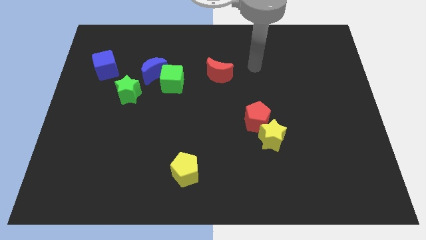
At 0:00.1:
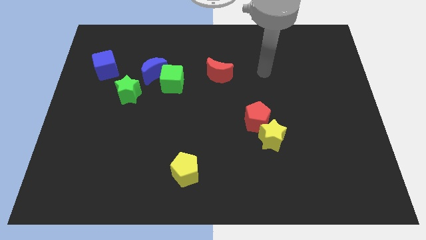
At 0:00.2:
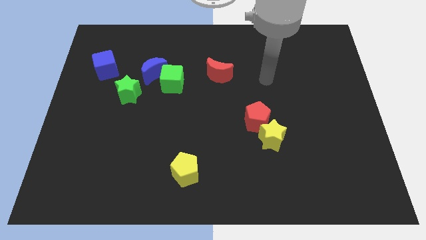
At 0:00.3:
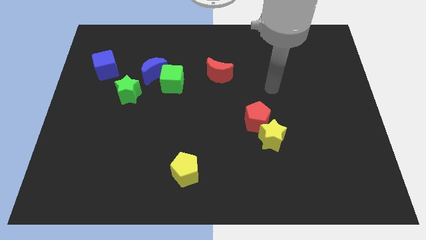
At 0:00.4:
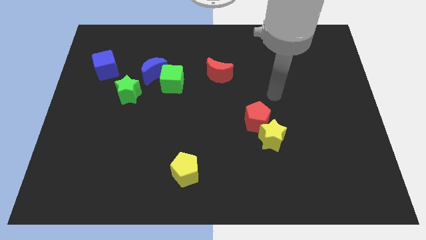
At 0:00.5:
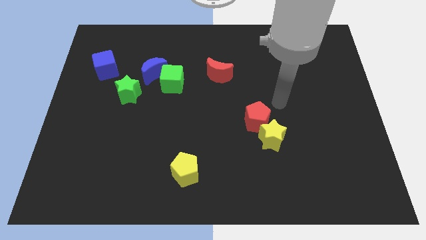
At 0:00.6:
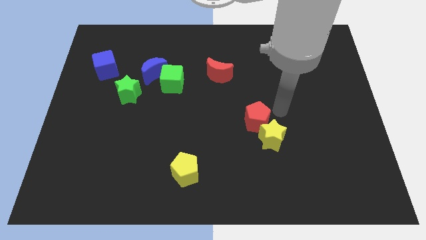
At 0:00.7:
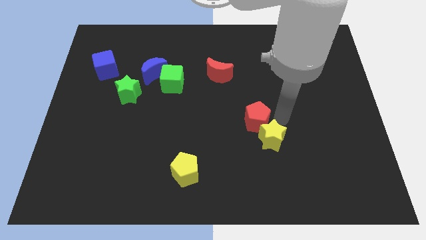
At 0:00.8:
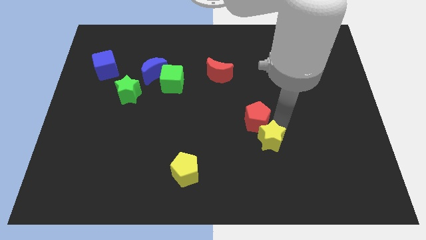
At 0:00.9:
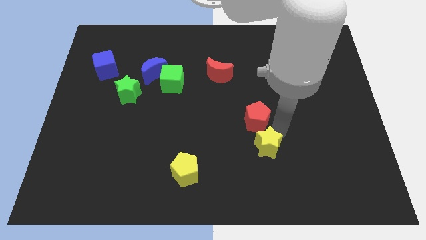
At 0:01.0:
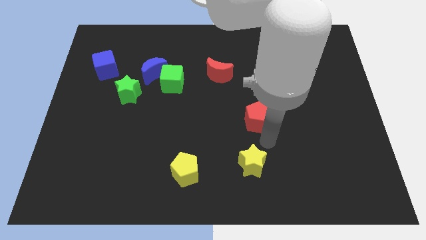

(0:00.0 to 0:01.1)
pull the red pentagon apart from the yellow star

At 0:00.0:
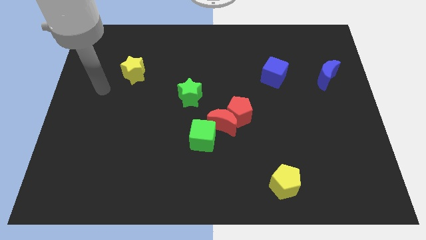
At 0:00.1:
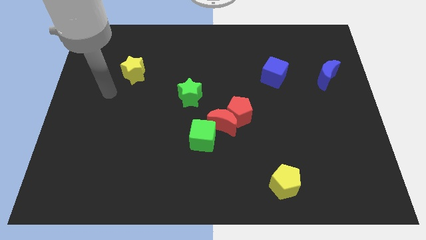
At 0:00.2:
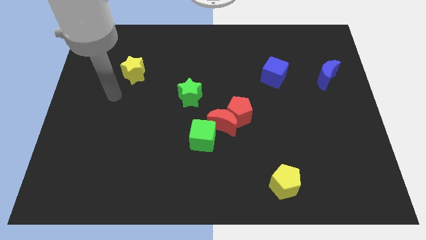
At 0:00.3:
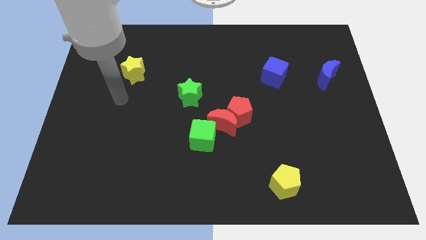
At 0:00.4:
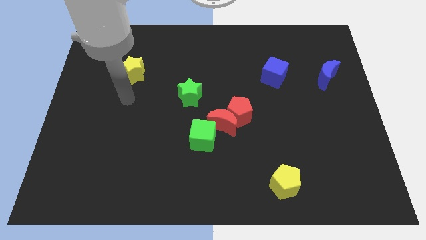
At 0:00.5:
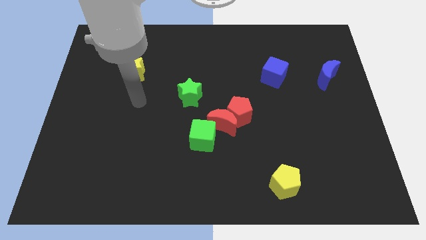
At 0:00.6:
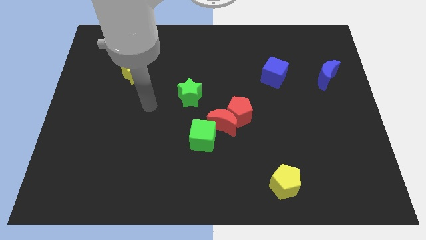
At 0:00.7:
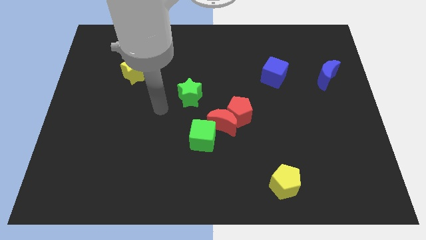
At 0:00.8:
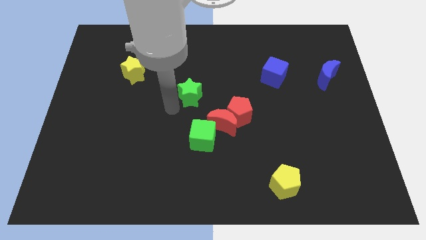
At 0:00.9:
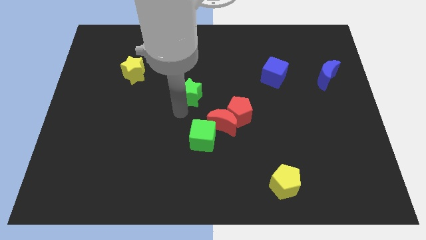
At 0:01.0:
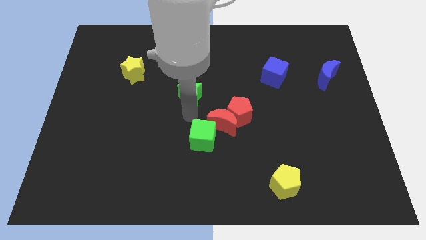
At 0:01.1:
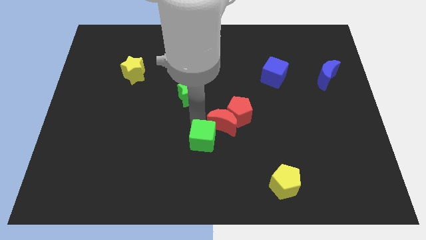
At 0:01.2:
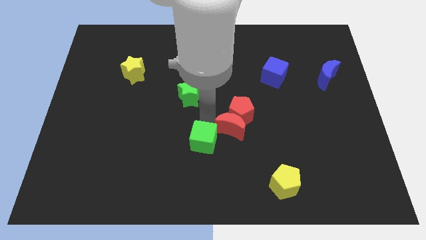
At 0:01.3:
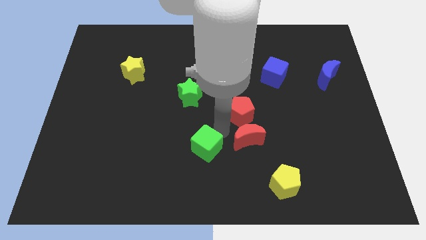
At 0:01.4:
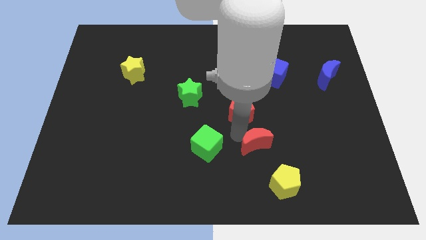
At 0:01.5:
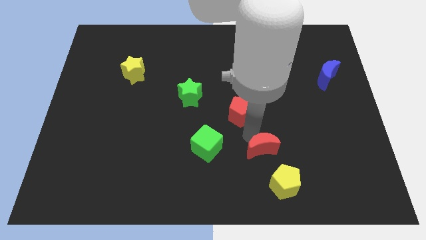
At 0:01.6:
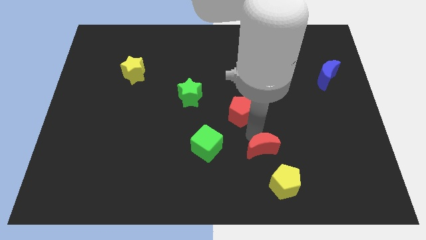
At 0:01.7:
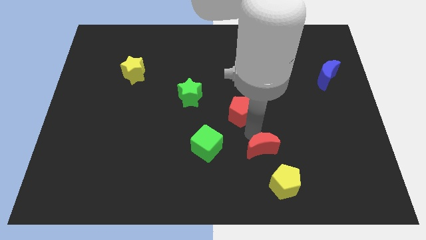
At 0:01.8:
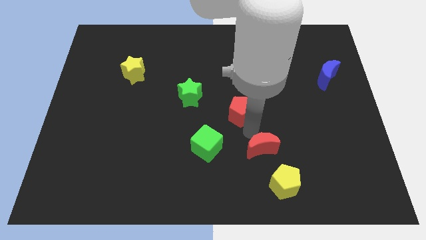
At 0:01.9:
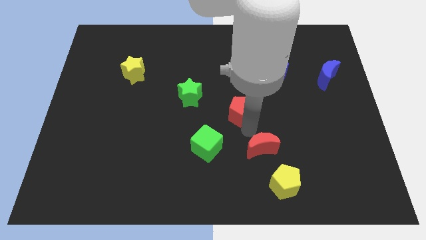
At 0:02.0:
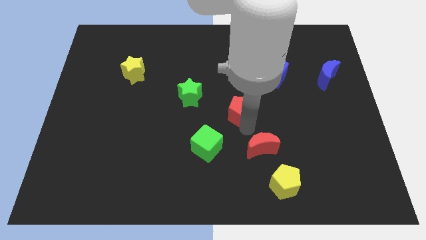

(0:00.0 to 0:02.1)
pull the red pentagon apart from the red moon

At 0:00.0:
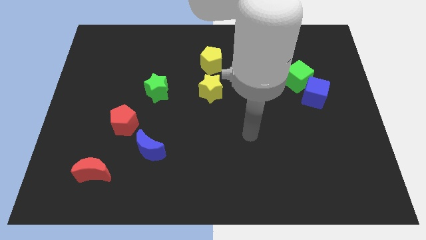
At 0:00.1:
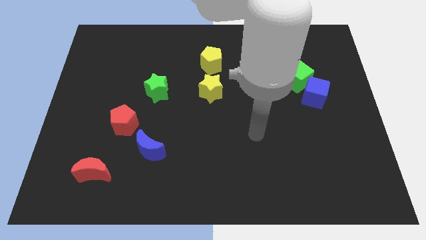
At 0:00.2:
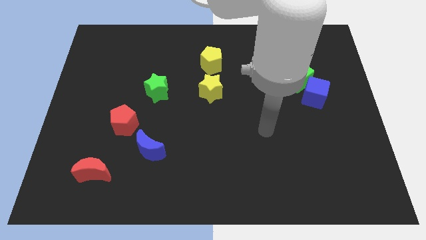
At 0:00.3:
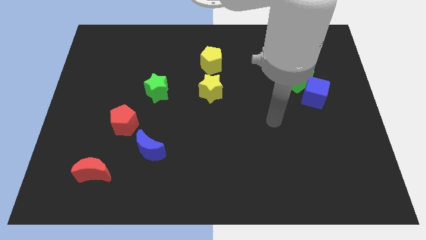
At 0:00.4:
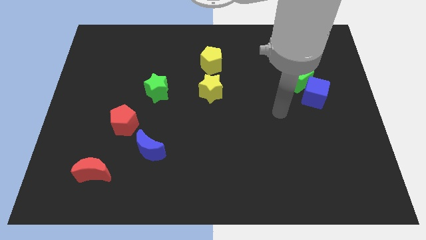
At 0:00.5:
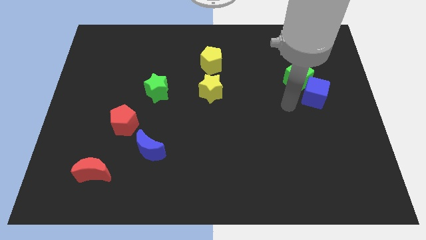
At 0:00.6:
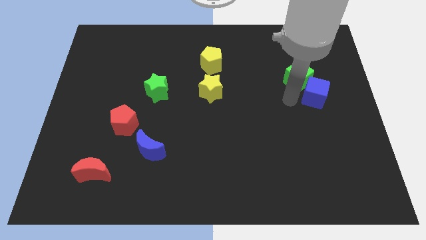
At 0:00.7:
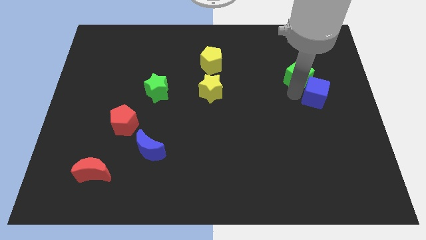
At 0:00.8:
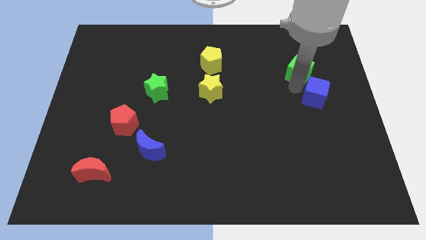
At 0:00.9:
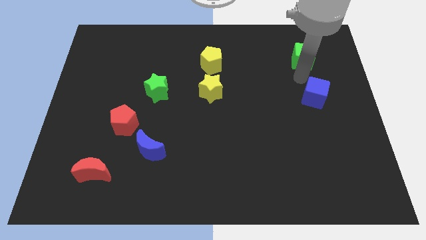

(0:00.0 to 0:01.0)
separate the blue cube from the green cube

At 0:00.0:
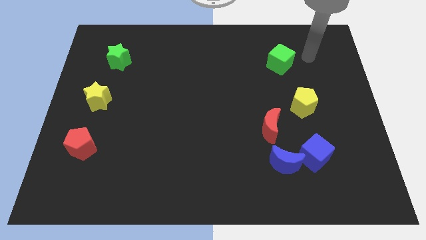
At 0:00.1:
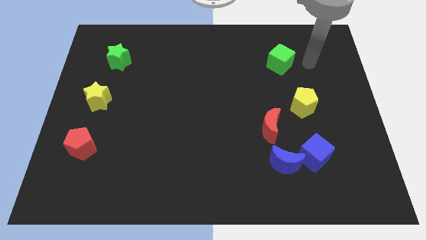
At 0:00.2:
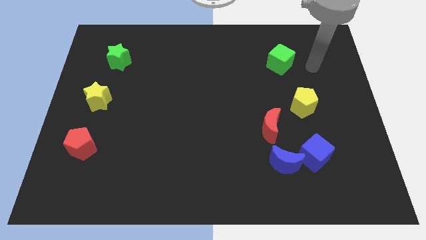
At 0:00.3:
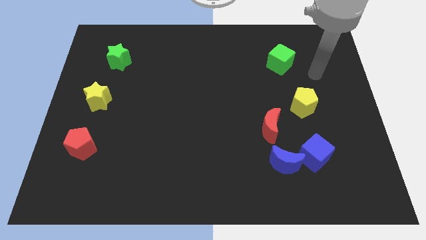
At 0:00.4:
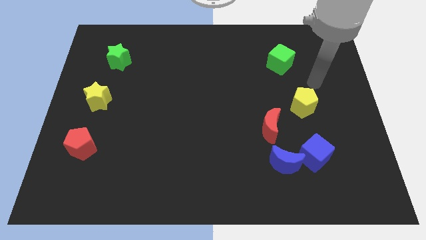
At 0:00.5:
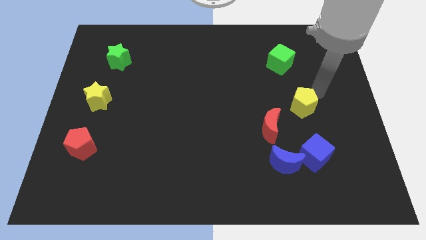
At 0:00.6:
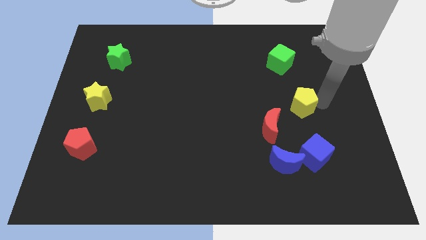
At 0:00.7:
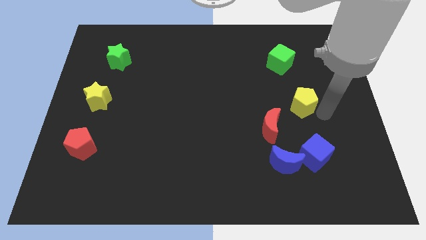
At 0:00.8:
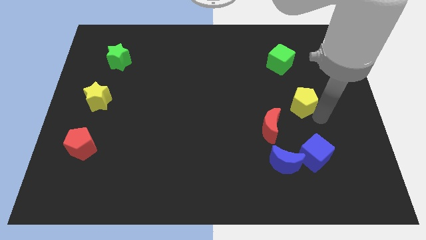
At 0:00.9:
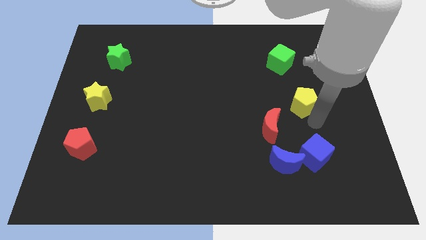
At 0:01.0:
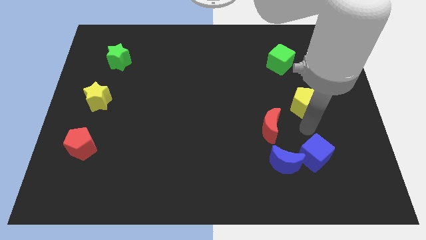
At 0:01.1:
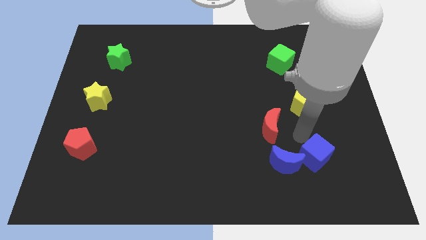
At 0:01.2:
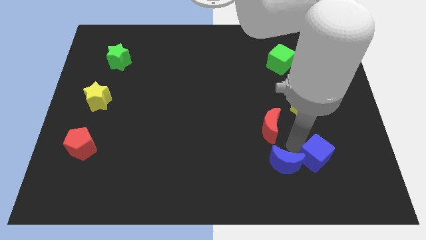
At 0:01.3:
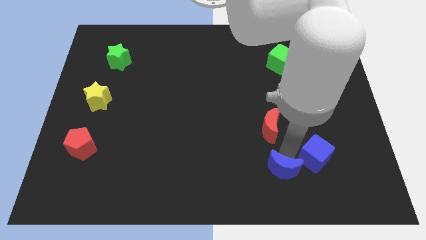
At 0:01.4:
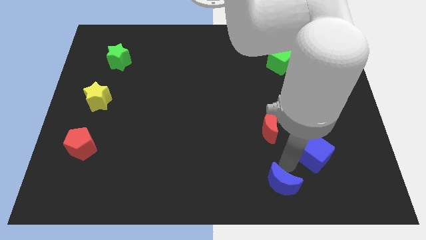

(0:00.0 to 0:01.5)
move the blue cube away from the blue moon

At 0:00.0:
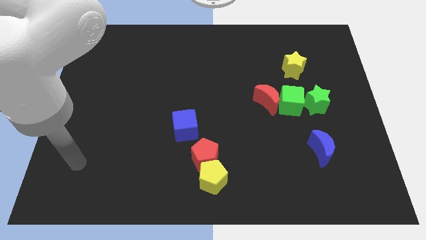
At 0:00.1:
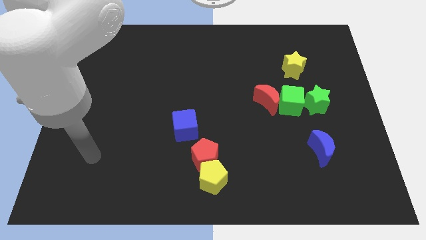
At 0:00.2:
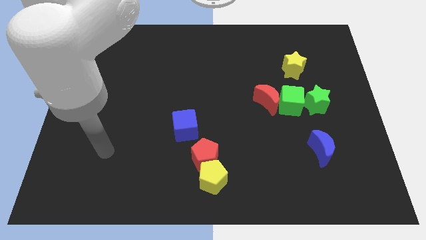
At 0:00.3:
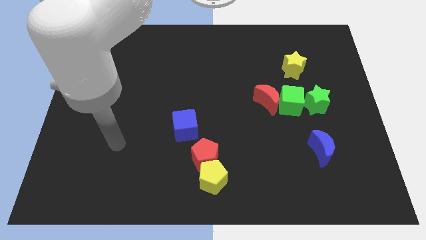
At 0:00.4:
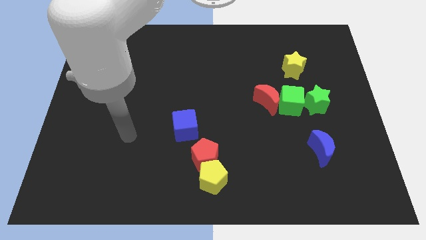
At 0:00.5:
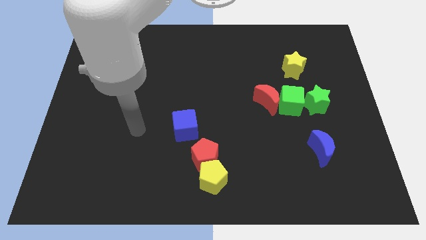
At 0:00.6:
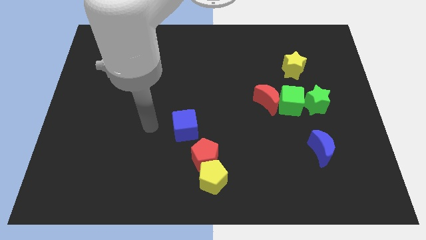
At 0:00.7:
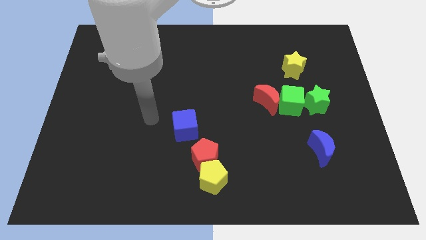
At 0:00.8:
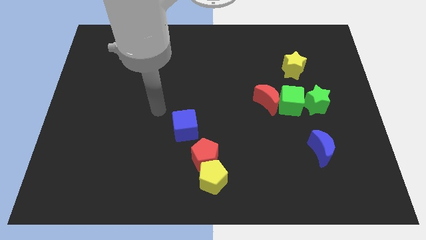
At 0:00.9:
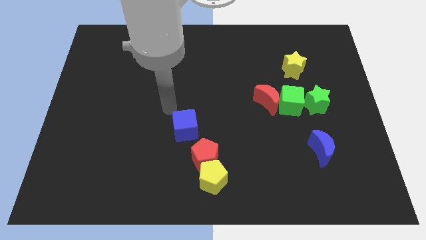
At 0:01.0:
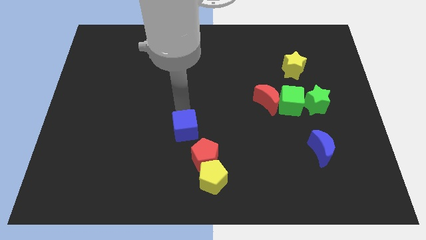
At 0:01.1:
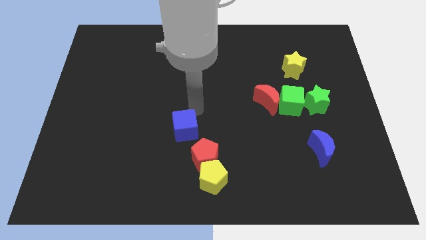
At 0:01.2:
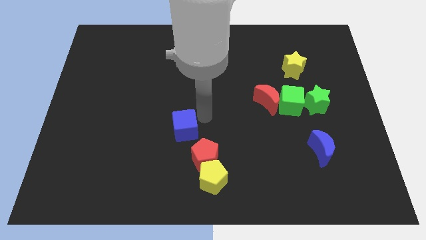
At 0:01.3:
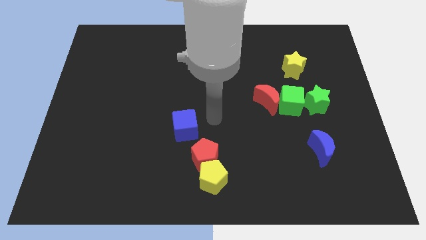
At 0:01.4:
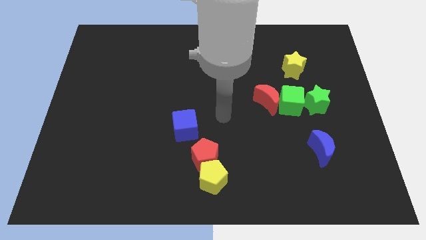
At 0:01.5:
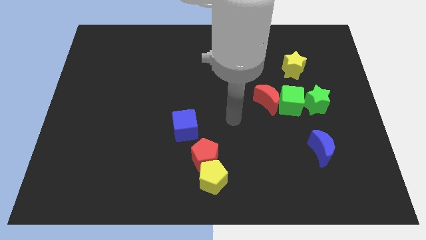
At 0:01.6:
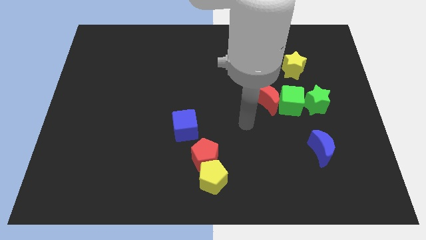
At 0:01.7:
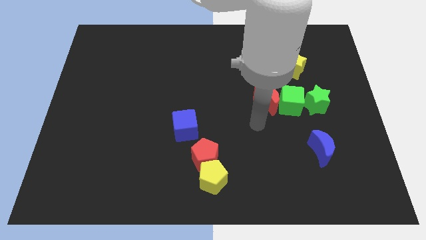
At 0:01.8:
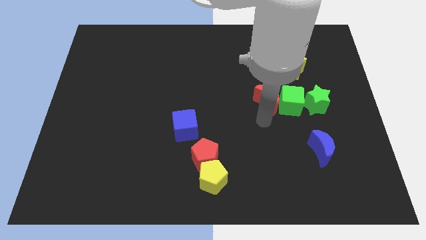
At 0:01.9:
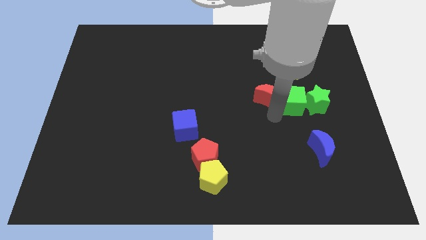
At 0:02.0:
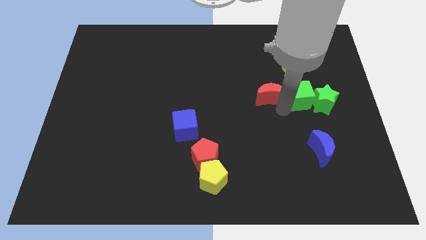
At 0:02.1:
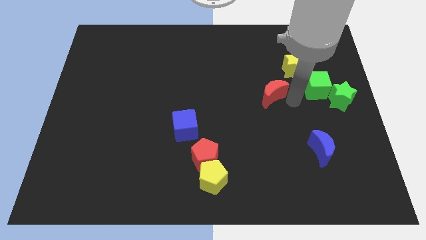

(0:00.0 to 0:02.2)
move the red moon away from the green cube

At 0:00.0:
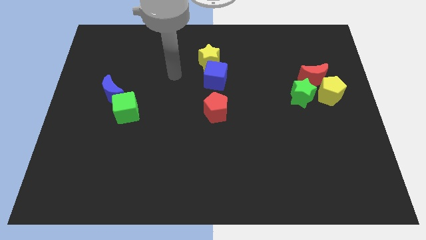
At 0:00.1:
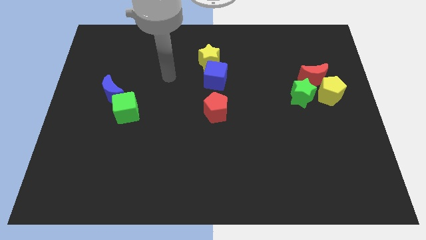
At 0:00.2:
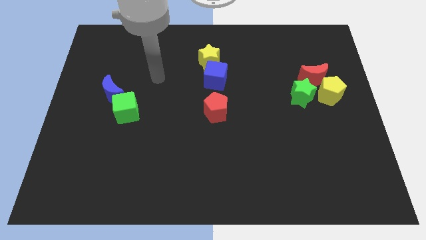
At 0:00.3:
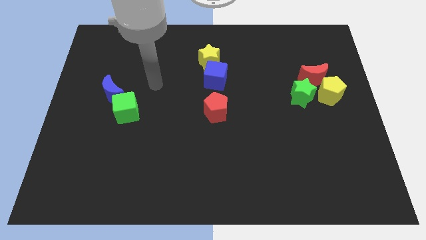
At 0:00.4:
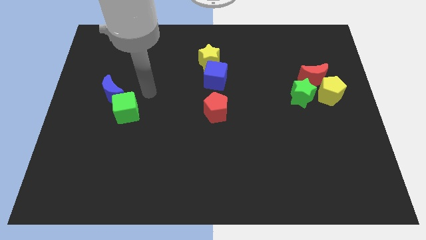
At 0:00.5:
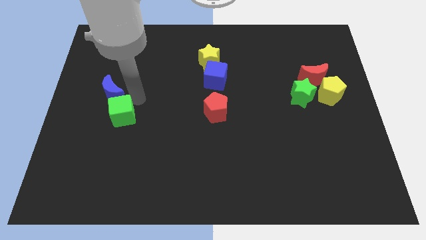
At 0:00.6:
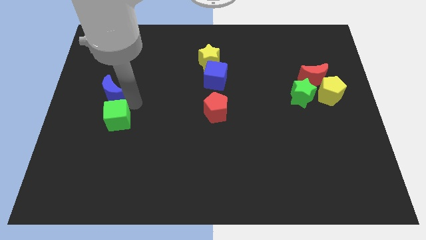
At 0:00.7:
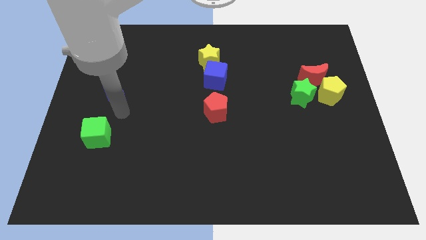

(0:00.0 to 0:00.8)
pull the blue moon apart from the green cube

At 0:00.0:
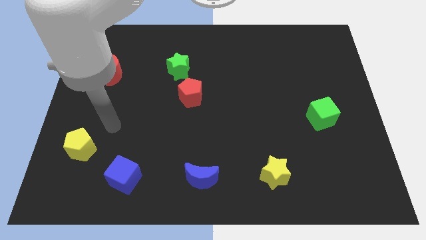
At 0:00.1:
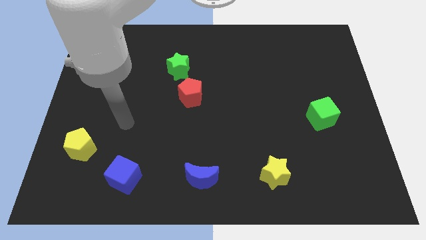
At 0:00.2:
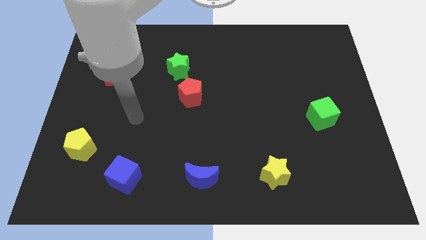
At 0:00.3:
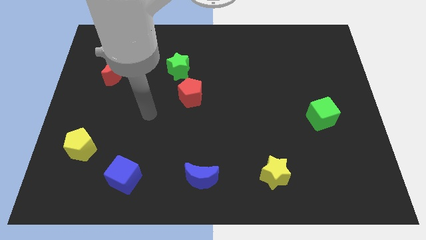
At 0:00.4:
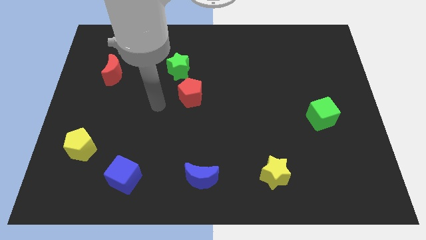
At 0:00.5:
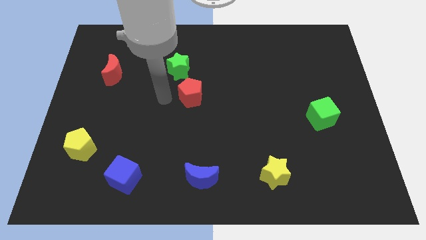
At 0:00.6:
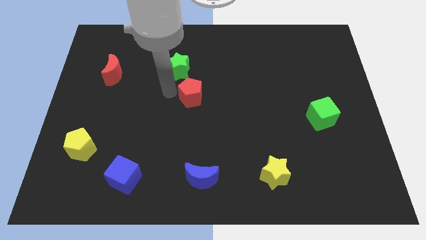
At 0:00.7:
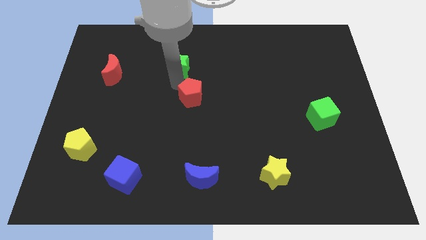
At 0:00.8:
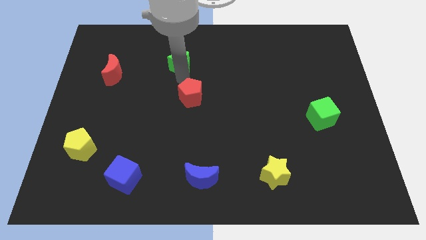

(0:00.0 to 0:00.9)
pull the red pentagon apart from the green star
